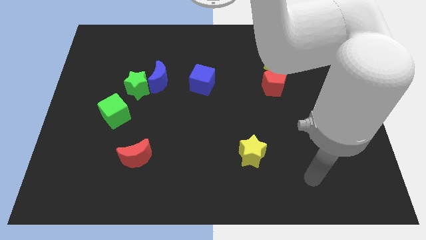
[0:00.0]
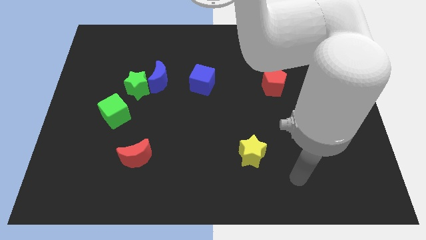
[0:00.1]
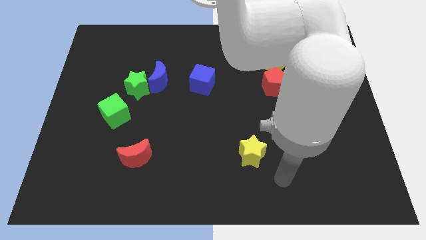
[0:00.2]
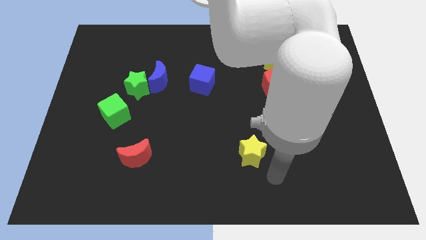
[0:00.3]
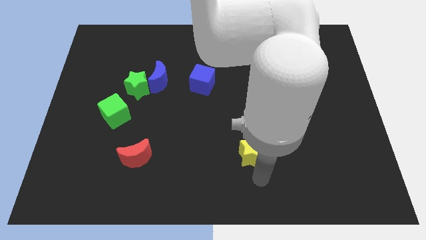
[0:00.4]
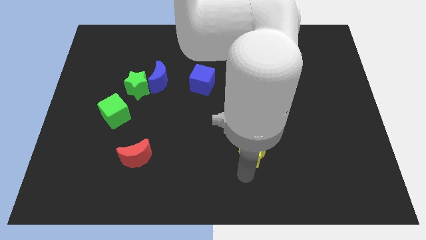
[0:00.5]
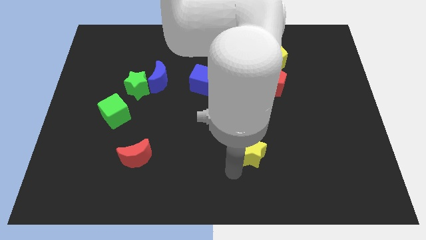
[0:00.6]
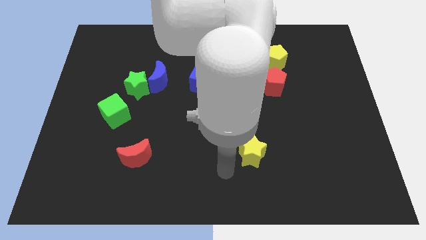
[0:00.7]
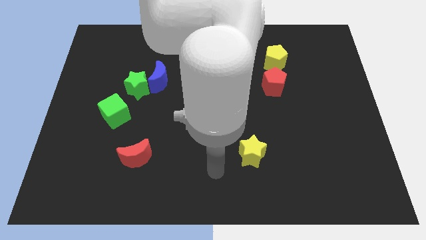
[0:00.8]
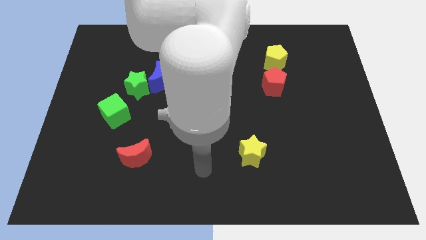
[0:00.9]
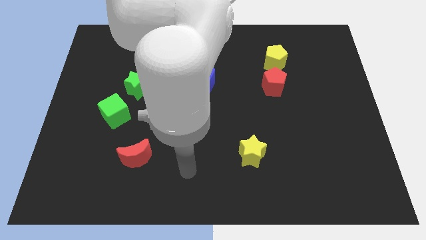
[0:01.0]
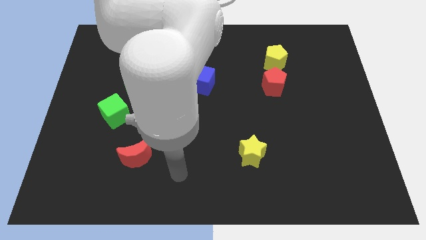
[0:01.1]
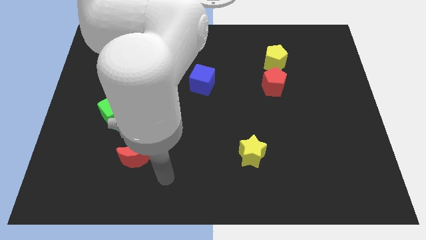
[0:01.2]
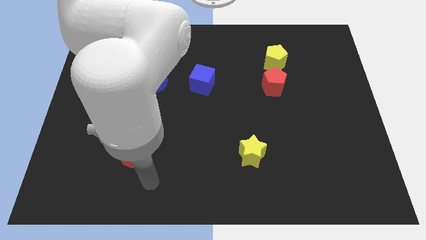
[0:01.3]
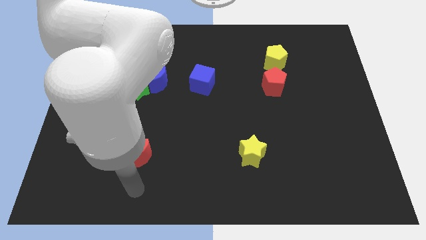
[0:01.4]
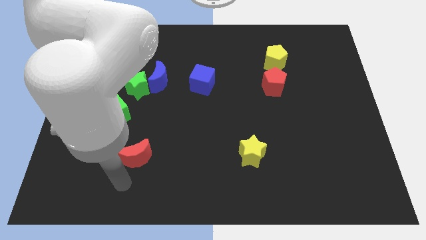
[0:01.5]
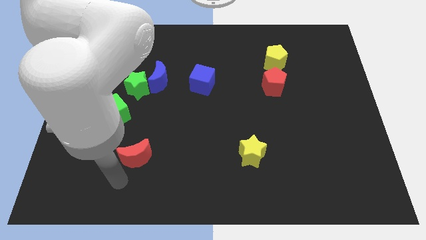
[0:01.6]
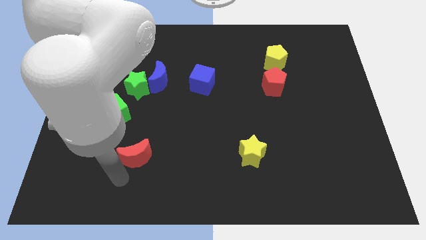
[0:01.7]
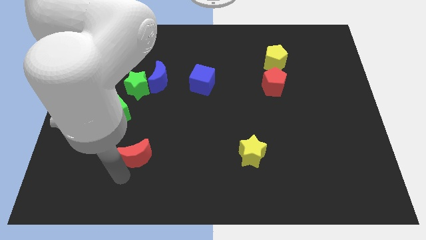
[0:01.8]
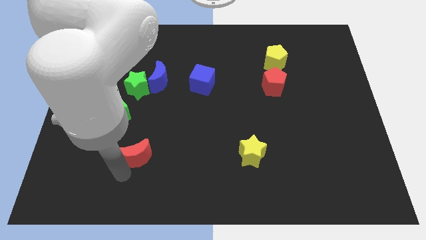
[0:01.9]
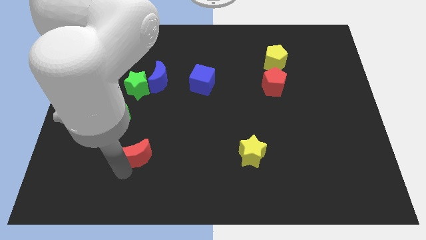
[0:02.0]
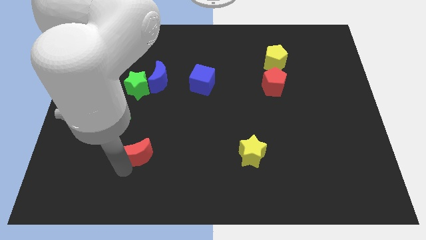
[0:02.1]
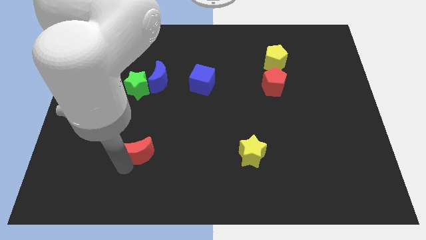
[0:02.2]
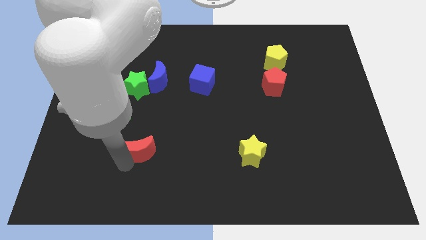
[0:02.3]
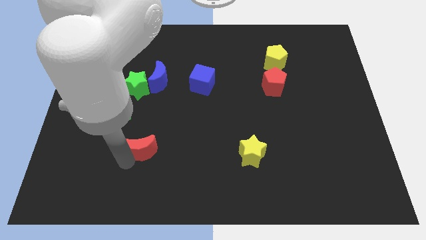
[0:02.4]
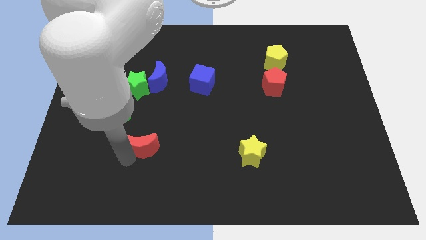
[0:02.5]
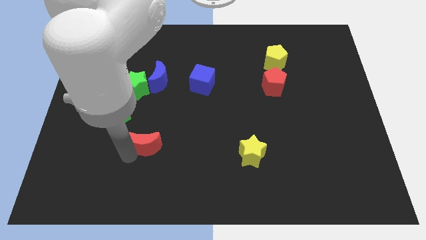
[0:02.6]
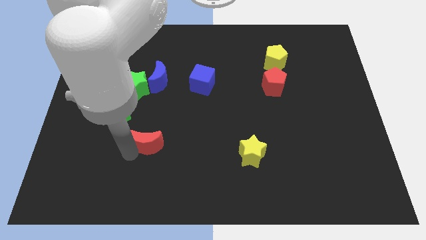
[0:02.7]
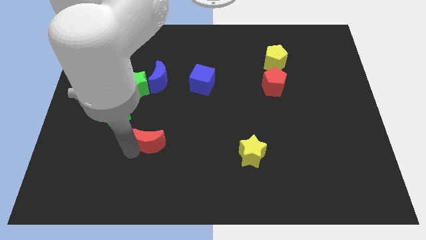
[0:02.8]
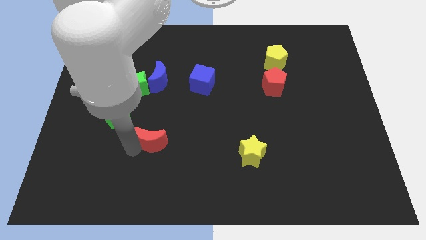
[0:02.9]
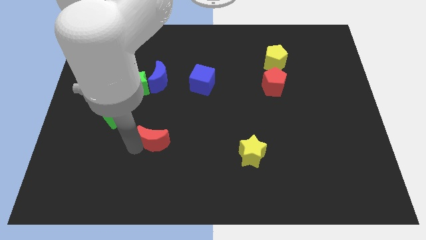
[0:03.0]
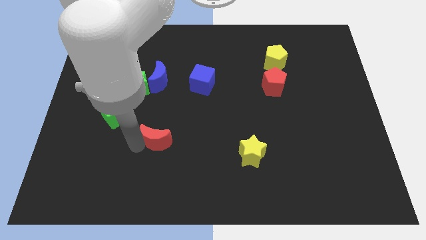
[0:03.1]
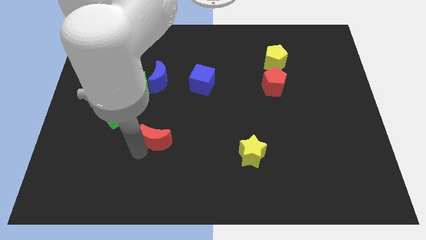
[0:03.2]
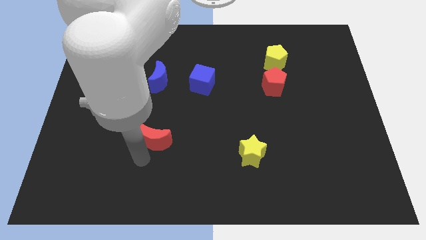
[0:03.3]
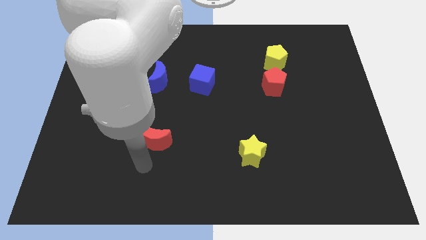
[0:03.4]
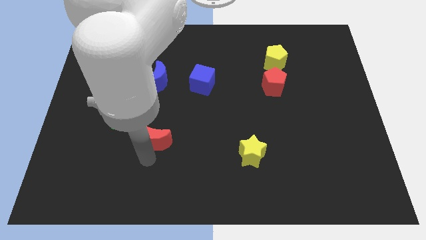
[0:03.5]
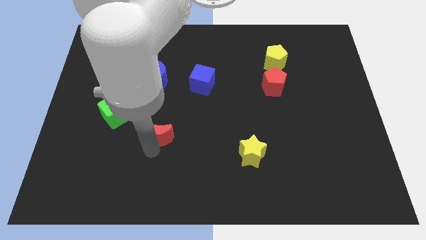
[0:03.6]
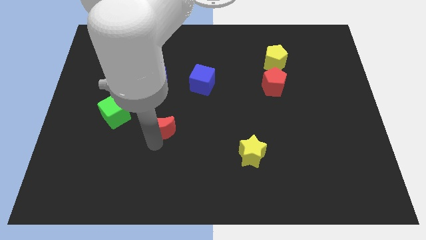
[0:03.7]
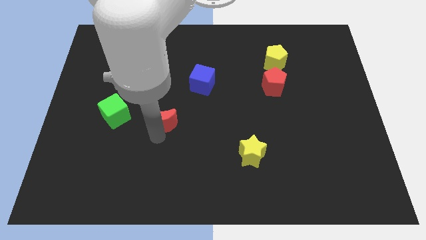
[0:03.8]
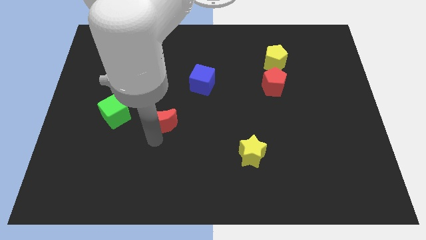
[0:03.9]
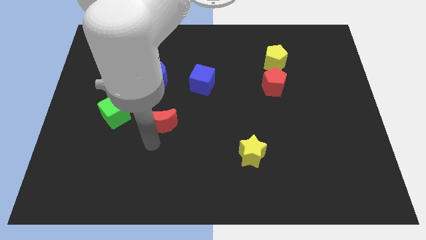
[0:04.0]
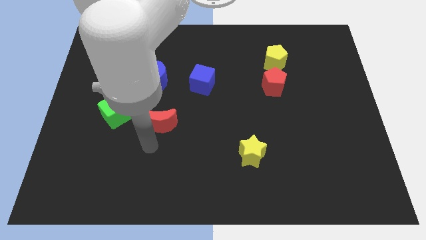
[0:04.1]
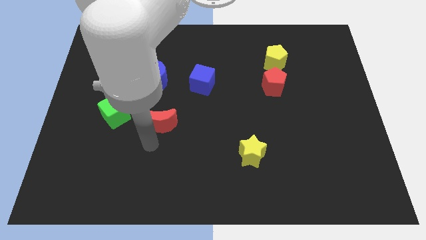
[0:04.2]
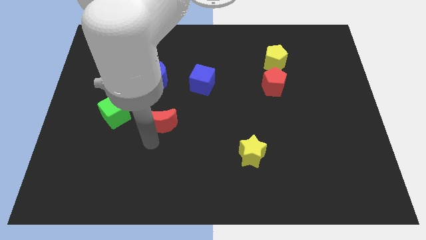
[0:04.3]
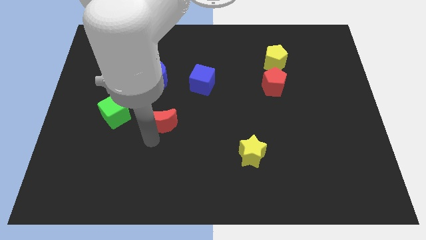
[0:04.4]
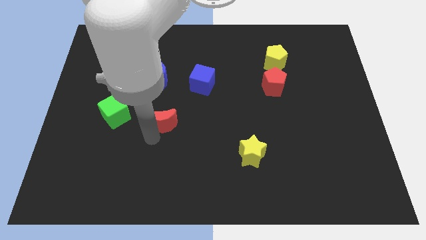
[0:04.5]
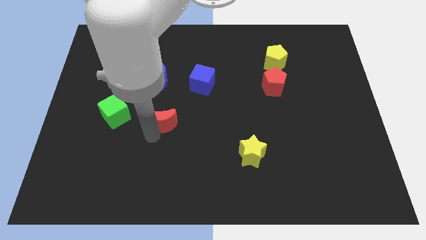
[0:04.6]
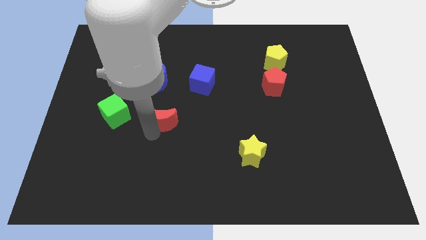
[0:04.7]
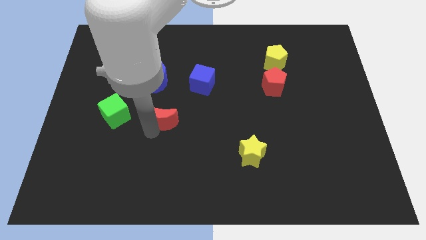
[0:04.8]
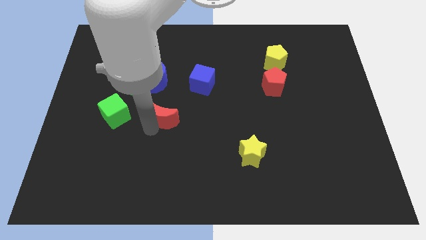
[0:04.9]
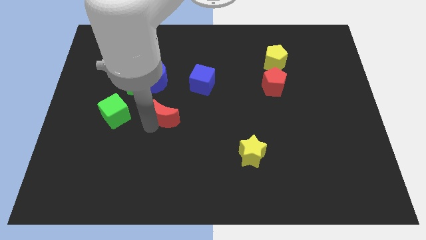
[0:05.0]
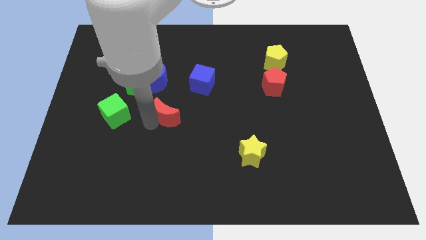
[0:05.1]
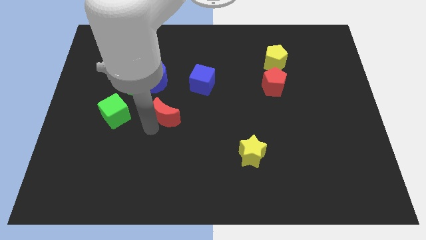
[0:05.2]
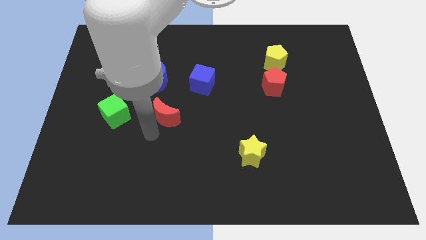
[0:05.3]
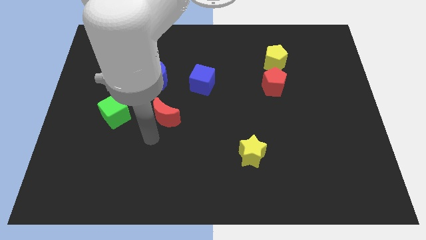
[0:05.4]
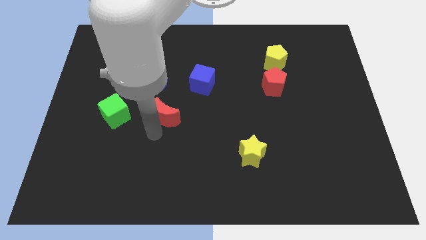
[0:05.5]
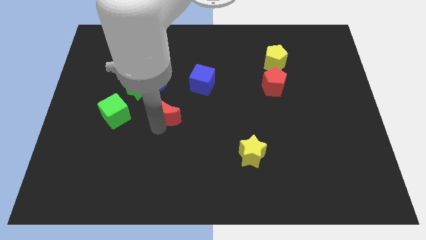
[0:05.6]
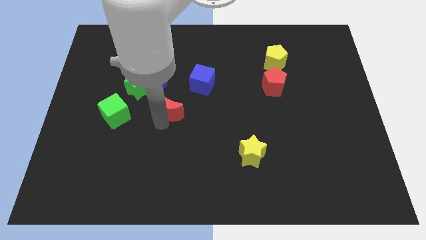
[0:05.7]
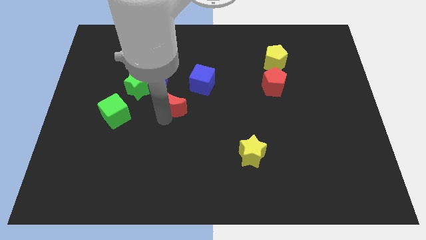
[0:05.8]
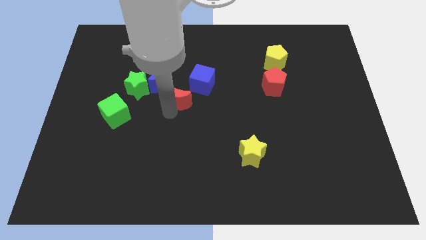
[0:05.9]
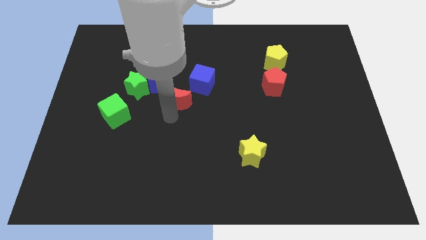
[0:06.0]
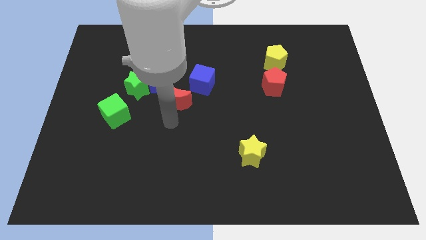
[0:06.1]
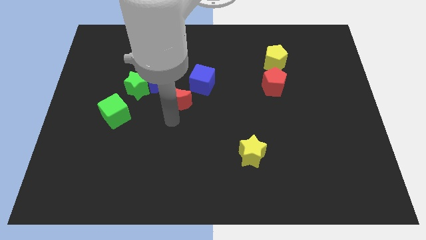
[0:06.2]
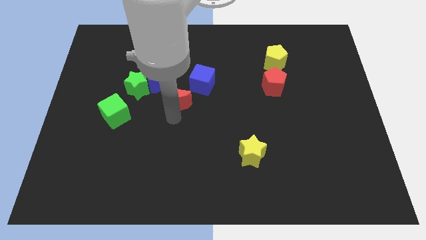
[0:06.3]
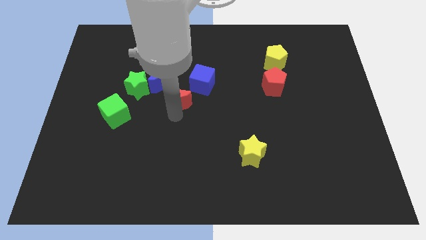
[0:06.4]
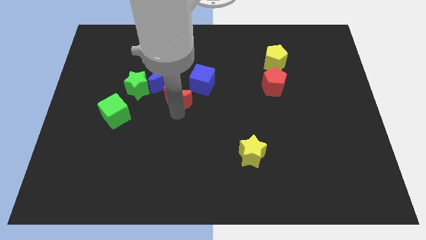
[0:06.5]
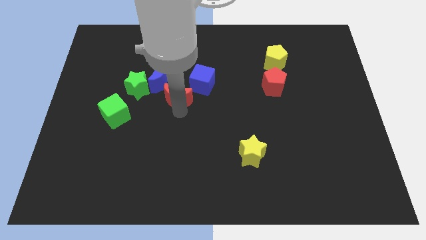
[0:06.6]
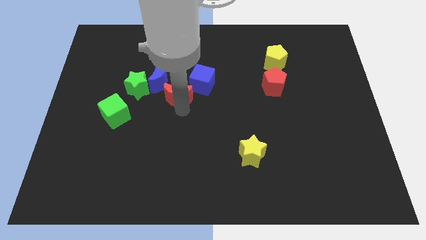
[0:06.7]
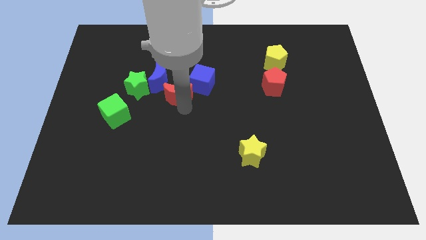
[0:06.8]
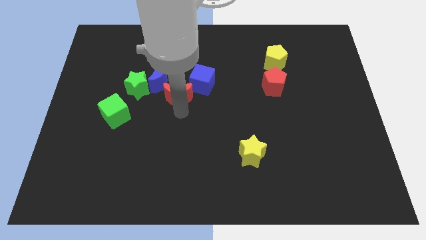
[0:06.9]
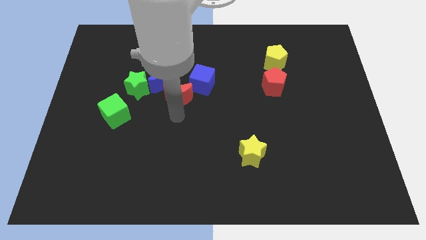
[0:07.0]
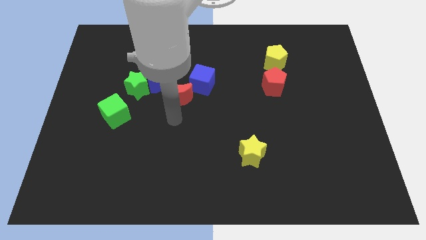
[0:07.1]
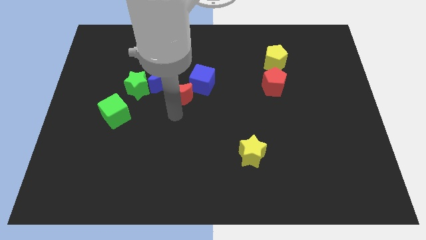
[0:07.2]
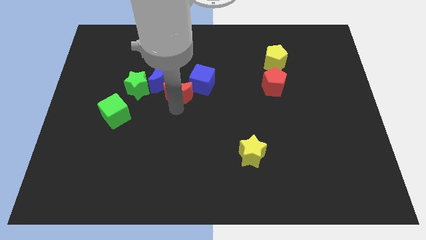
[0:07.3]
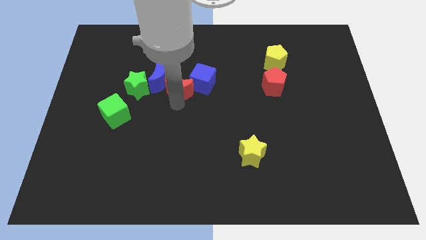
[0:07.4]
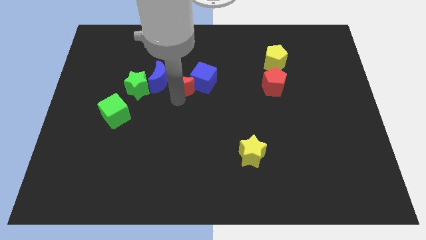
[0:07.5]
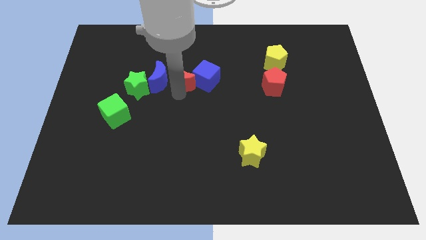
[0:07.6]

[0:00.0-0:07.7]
slide the red moon to the top left of the blue cube
